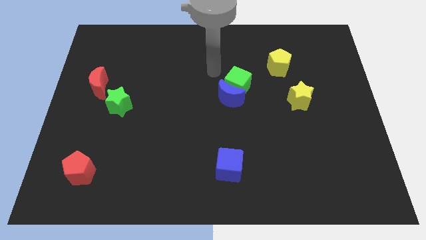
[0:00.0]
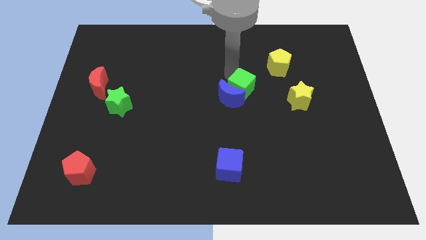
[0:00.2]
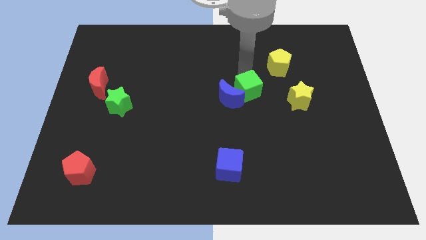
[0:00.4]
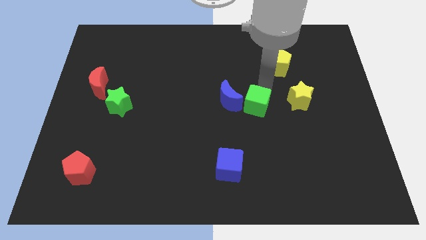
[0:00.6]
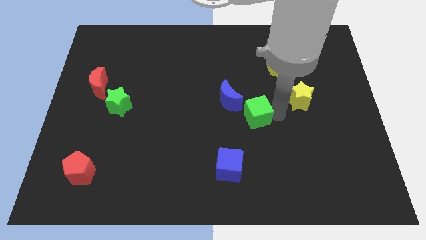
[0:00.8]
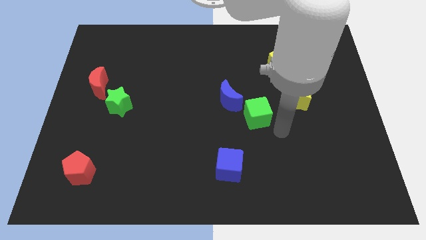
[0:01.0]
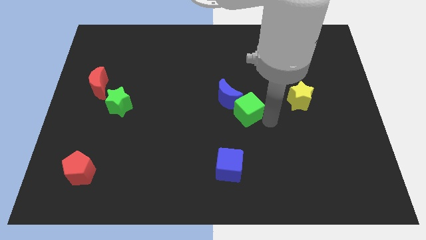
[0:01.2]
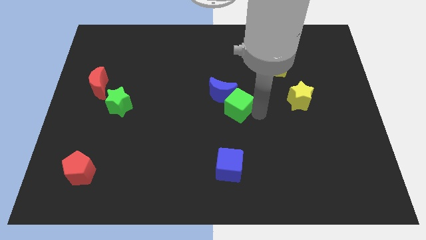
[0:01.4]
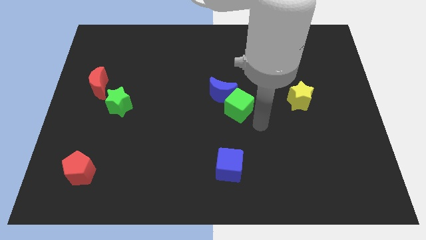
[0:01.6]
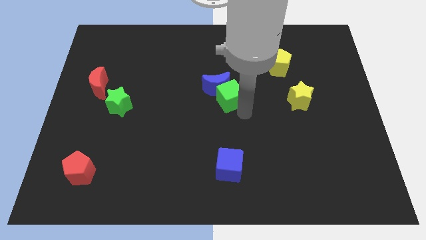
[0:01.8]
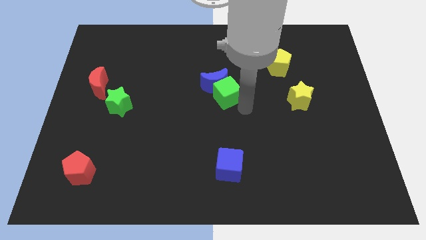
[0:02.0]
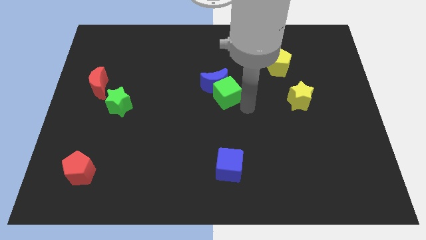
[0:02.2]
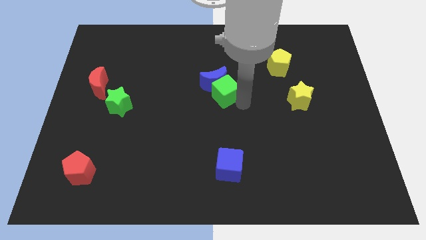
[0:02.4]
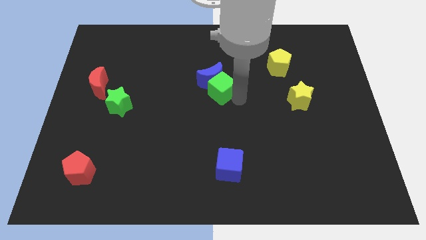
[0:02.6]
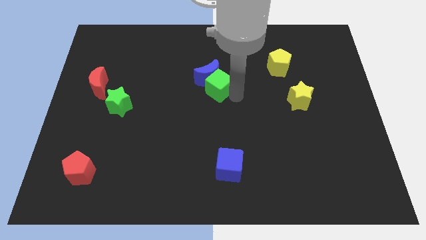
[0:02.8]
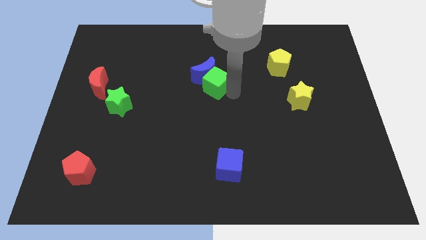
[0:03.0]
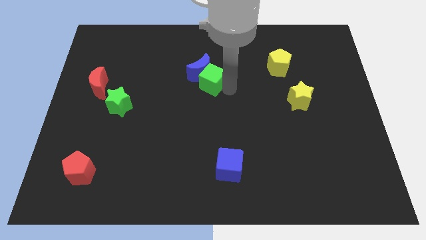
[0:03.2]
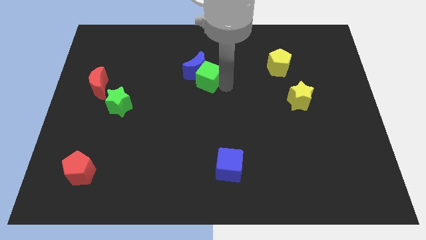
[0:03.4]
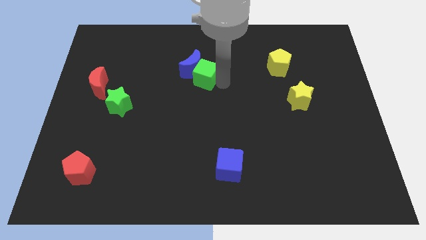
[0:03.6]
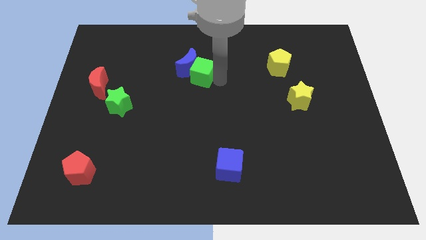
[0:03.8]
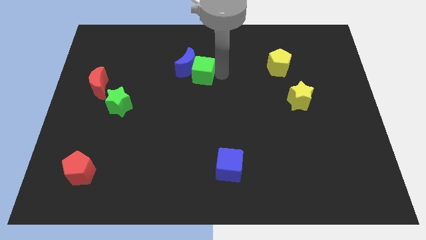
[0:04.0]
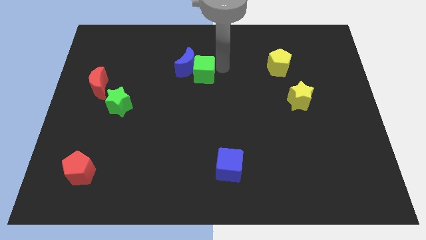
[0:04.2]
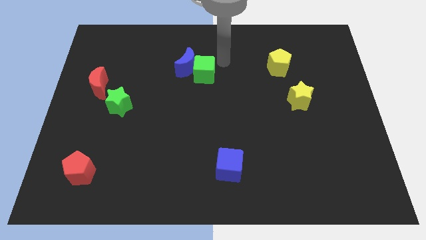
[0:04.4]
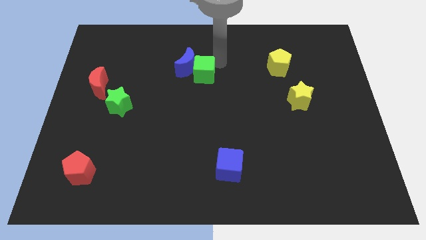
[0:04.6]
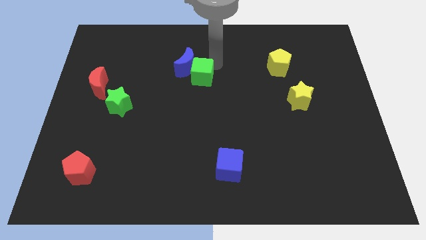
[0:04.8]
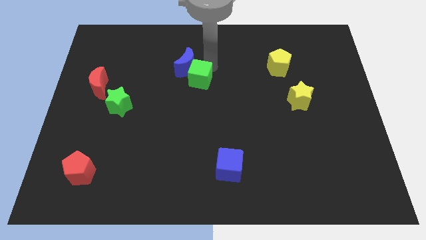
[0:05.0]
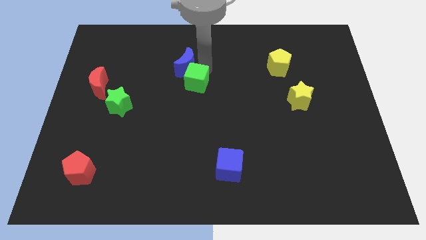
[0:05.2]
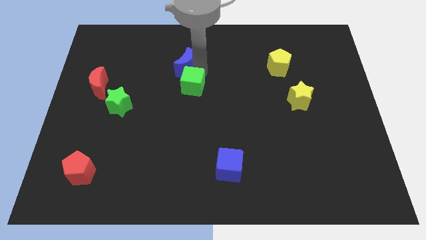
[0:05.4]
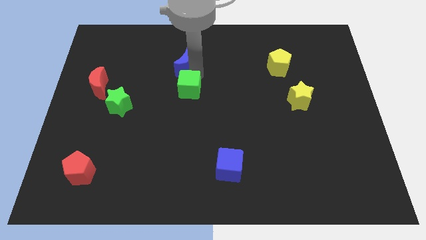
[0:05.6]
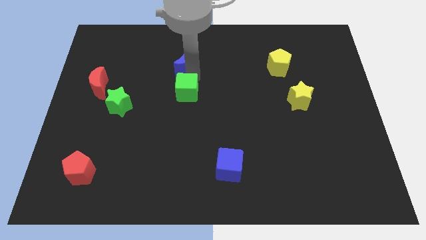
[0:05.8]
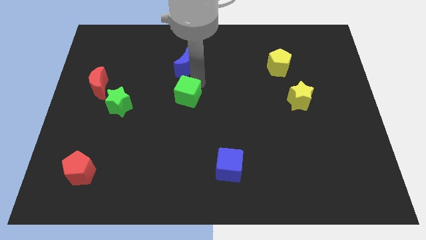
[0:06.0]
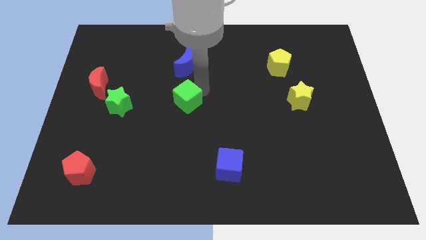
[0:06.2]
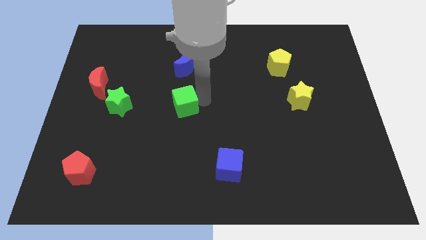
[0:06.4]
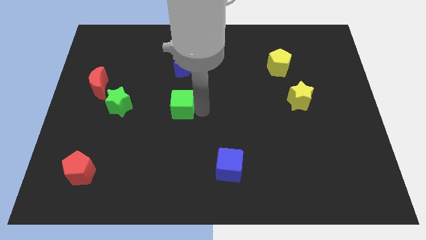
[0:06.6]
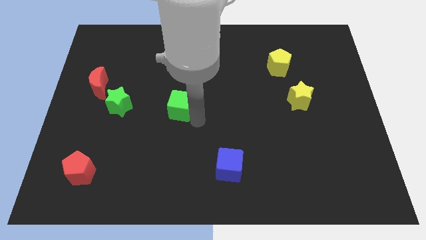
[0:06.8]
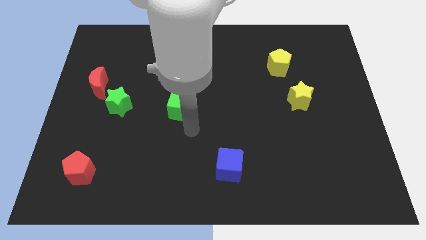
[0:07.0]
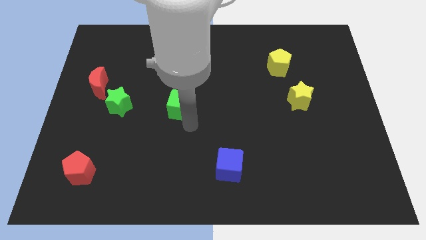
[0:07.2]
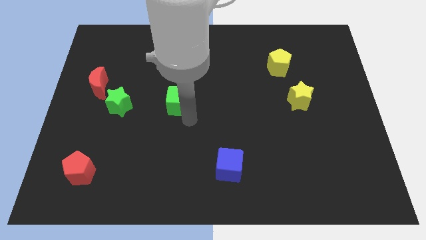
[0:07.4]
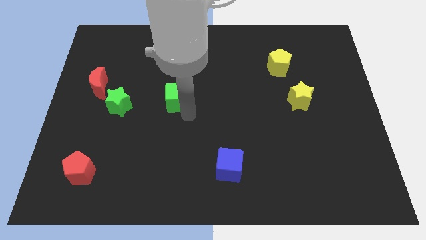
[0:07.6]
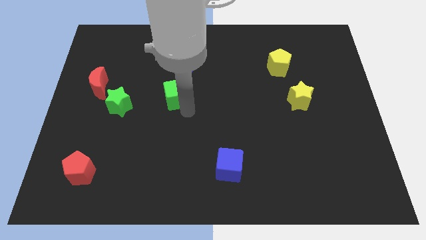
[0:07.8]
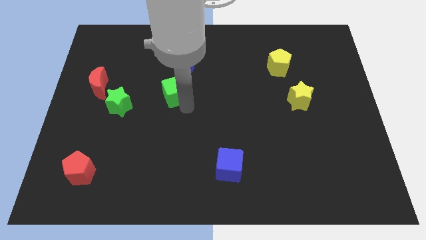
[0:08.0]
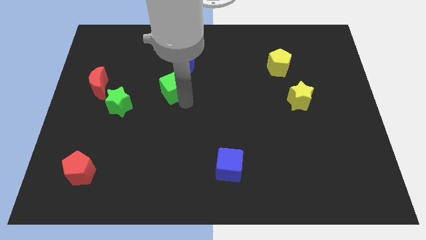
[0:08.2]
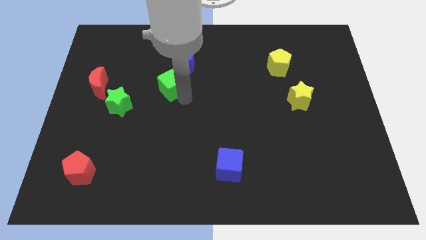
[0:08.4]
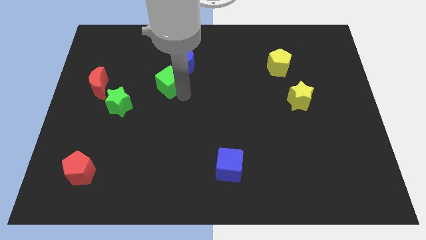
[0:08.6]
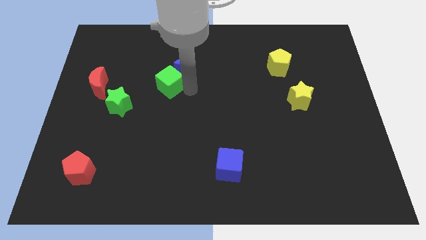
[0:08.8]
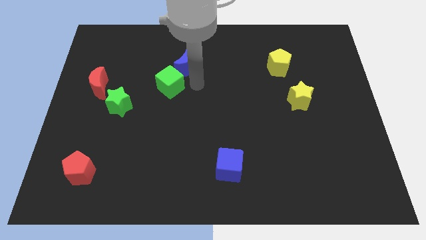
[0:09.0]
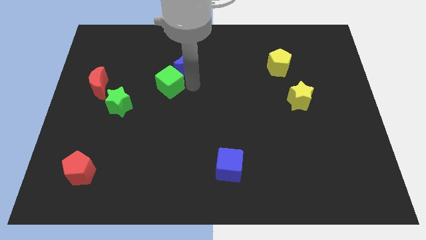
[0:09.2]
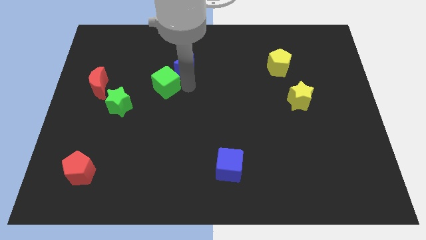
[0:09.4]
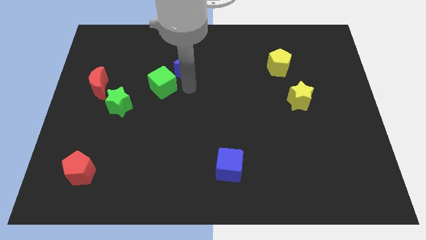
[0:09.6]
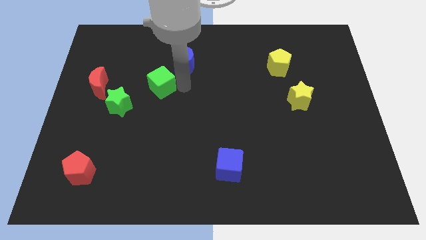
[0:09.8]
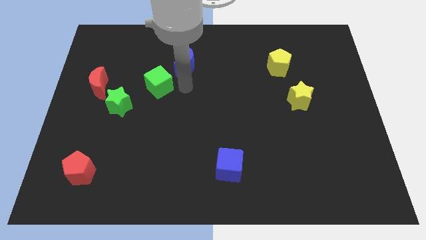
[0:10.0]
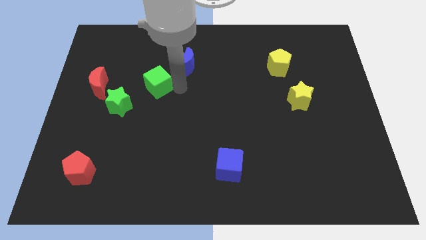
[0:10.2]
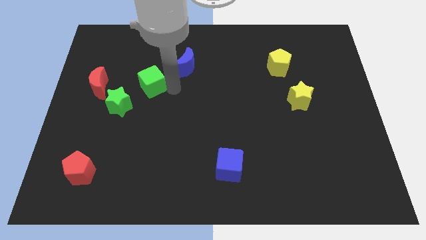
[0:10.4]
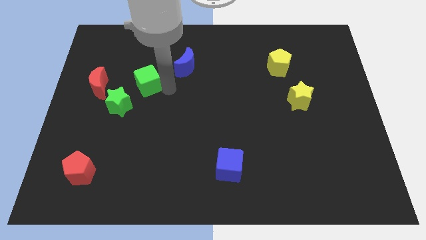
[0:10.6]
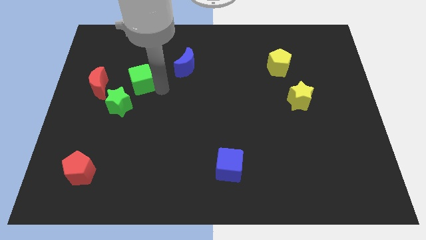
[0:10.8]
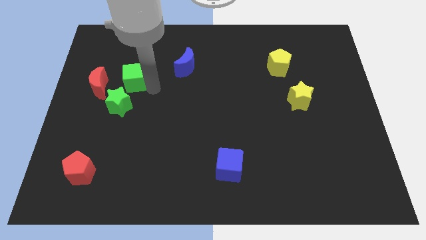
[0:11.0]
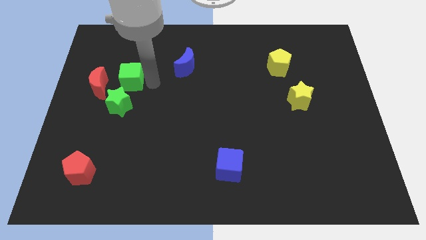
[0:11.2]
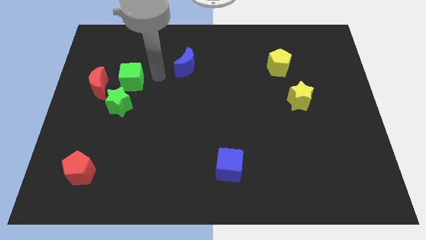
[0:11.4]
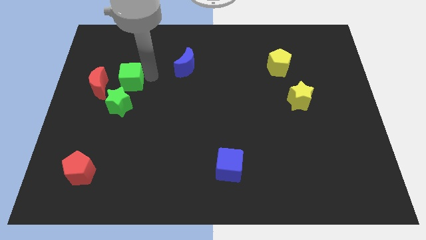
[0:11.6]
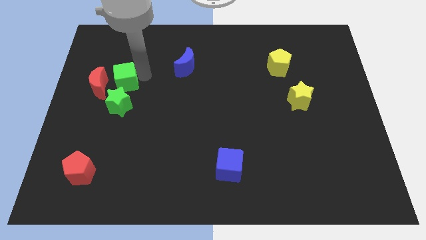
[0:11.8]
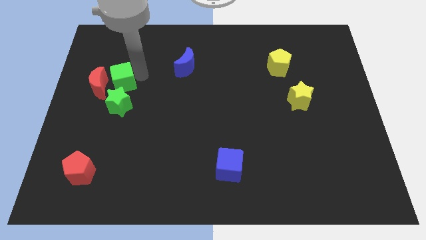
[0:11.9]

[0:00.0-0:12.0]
put the green cube next to the red moon

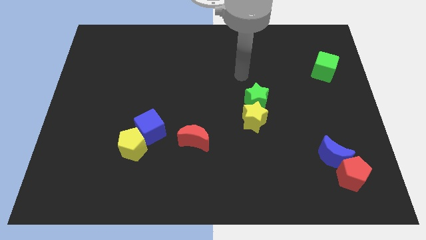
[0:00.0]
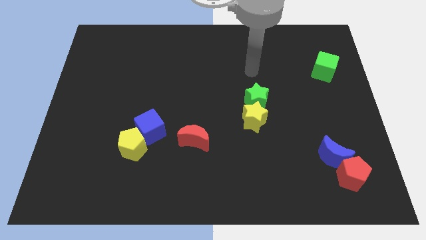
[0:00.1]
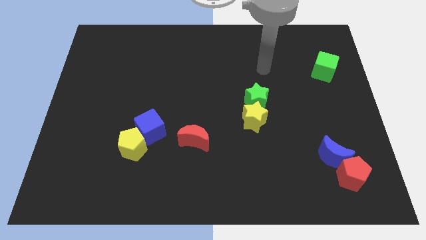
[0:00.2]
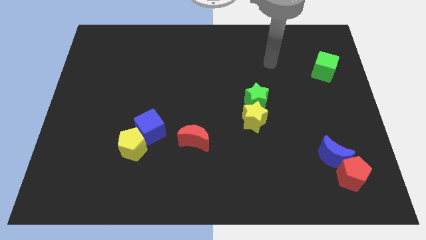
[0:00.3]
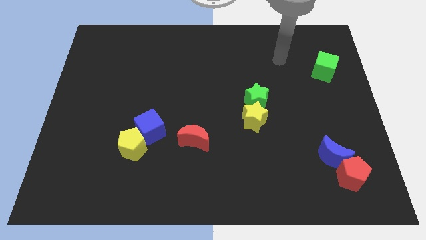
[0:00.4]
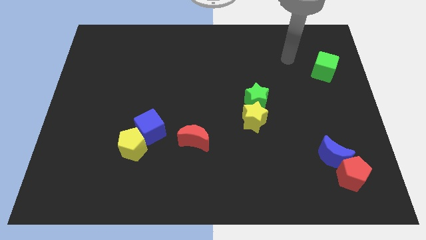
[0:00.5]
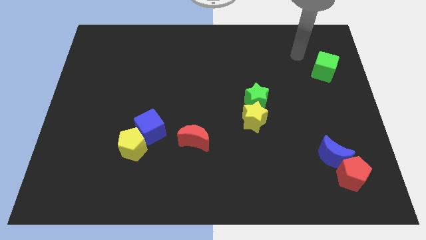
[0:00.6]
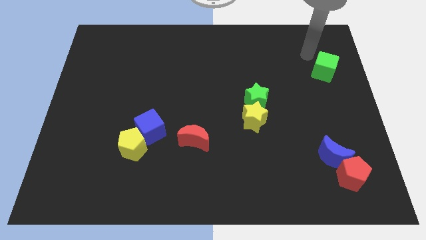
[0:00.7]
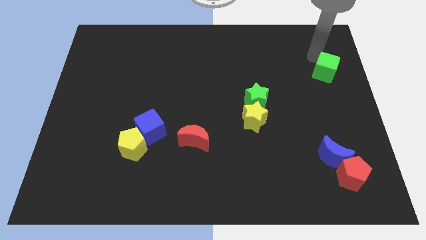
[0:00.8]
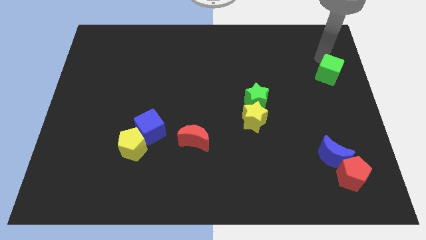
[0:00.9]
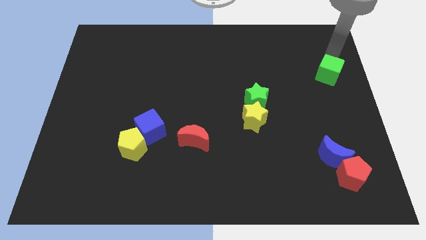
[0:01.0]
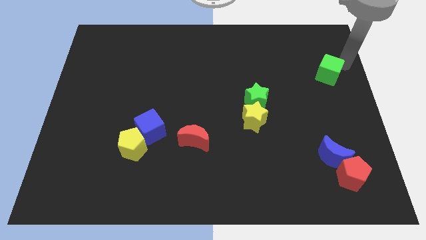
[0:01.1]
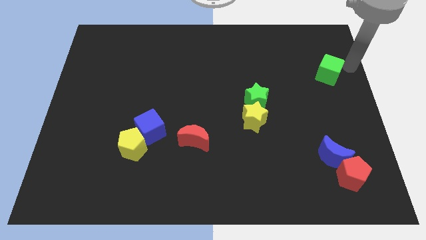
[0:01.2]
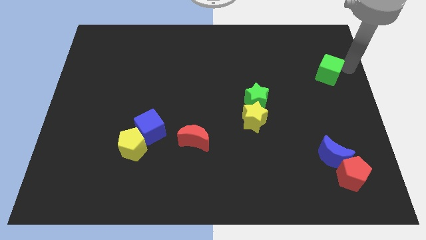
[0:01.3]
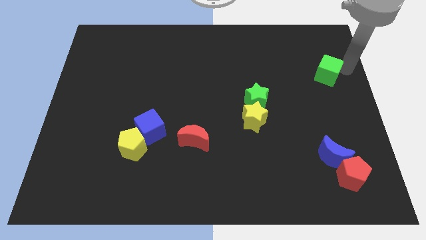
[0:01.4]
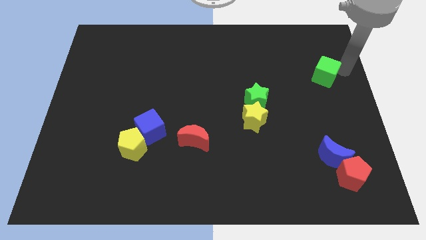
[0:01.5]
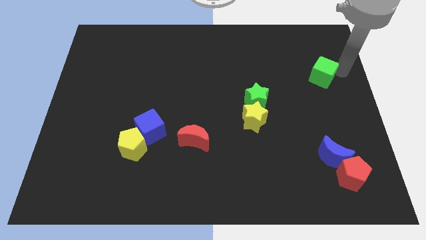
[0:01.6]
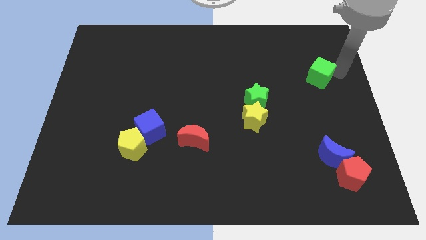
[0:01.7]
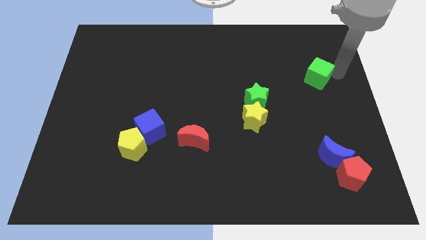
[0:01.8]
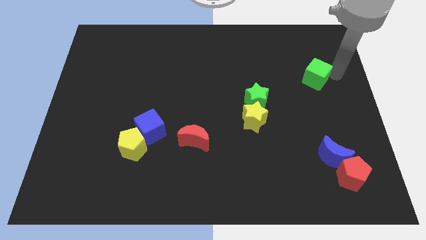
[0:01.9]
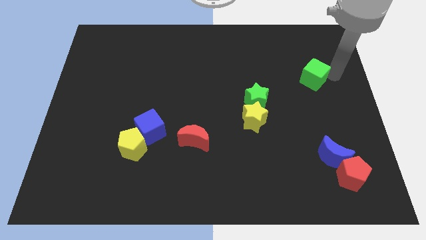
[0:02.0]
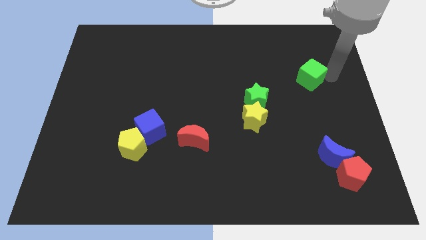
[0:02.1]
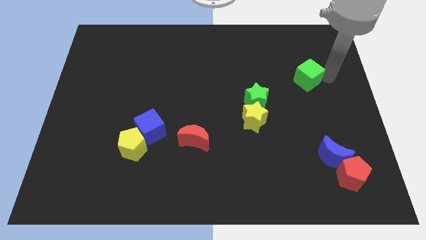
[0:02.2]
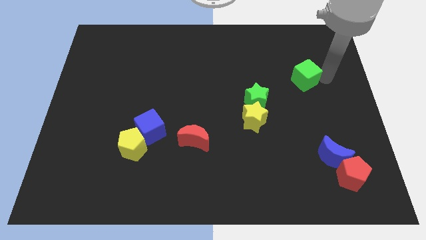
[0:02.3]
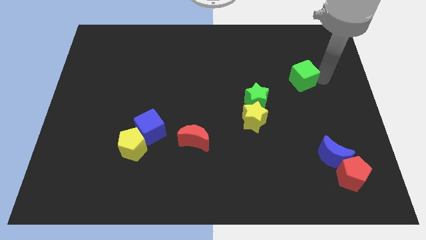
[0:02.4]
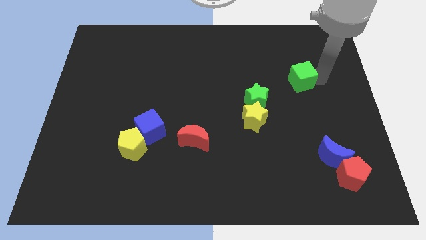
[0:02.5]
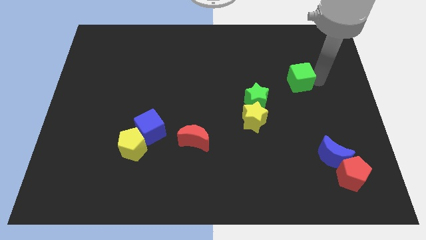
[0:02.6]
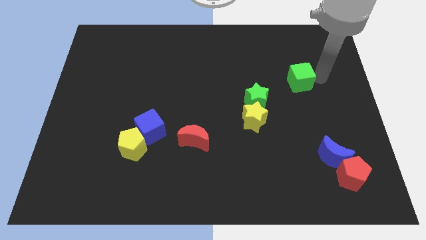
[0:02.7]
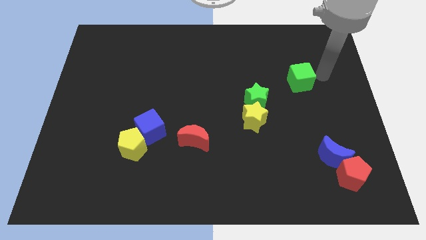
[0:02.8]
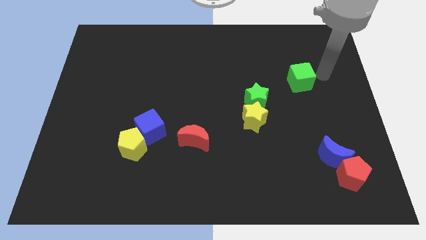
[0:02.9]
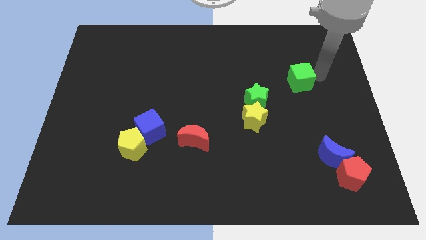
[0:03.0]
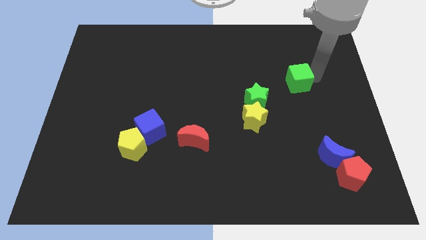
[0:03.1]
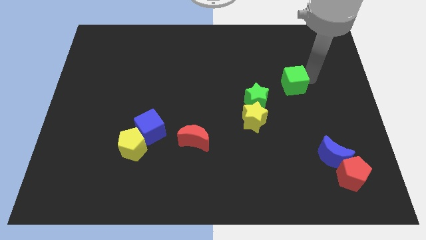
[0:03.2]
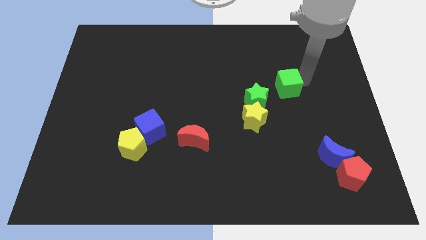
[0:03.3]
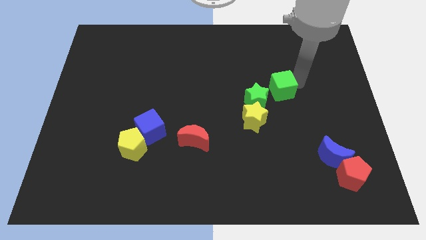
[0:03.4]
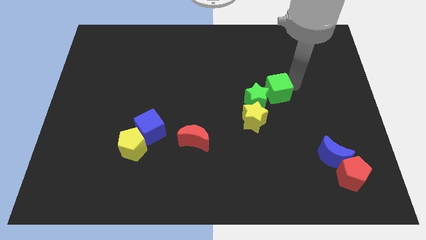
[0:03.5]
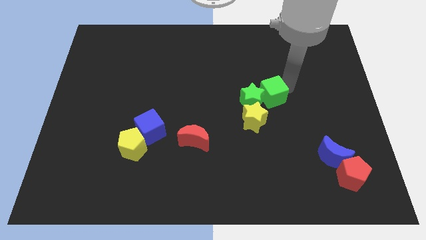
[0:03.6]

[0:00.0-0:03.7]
put the green cube next to the green star
